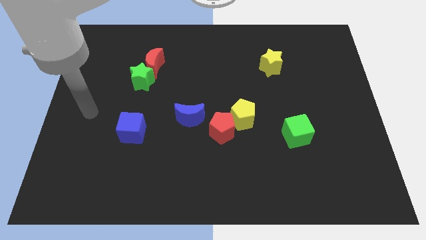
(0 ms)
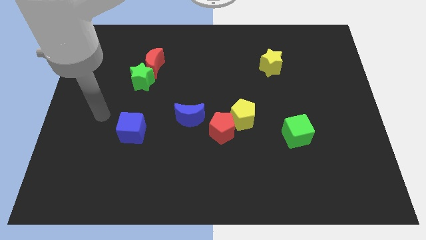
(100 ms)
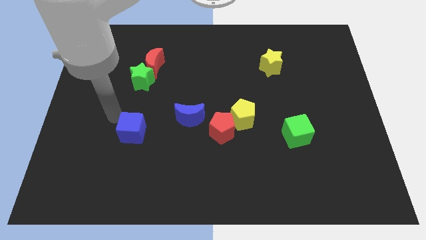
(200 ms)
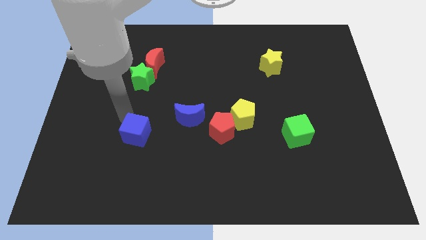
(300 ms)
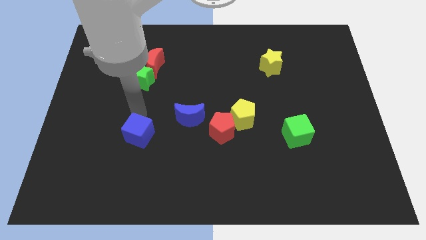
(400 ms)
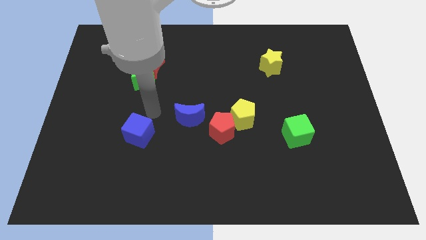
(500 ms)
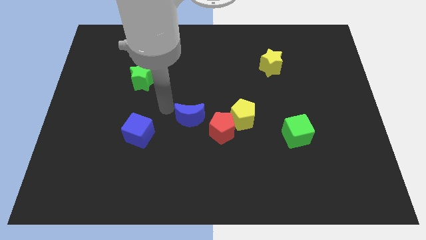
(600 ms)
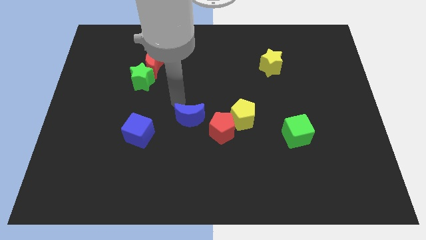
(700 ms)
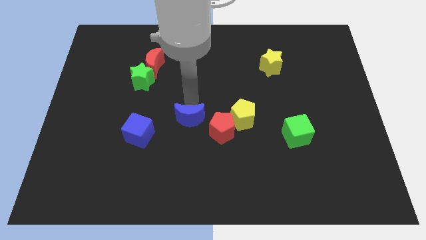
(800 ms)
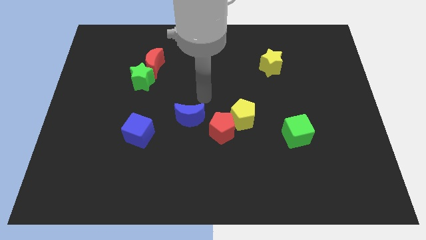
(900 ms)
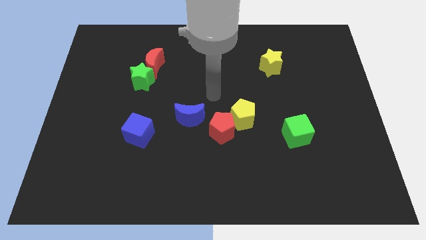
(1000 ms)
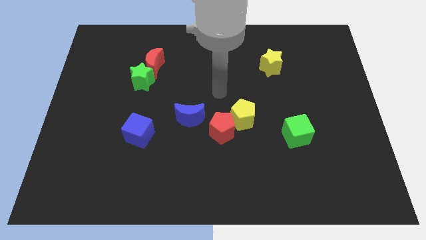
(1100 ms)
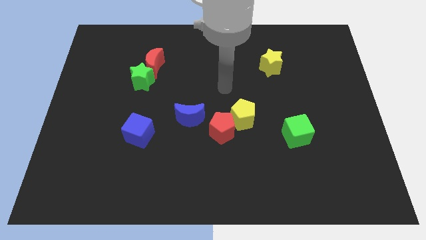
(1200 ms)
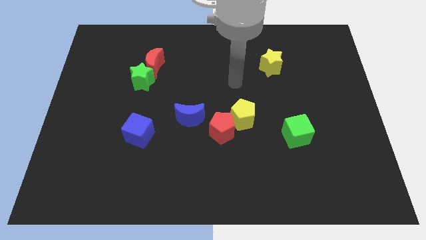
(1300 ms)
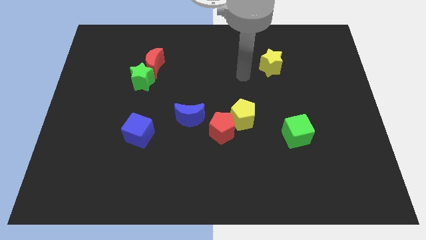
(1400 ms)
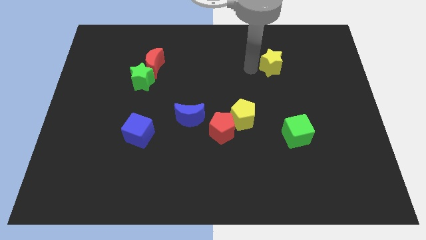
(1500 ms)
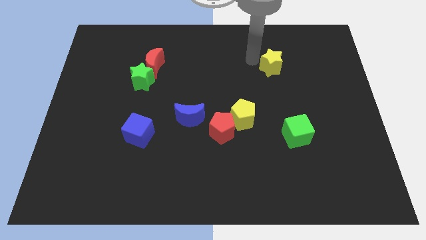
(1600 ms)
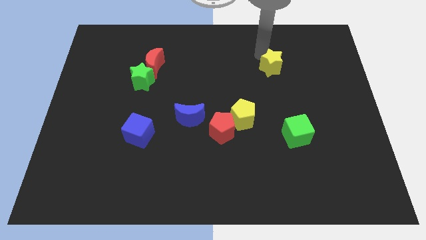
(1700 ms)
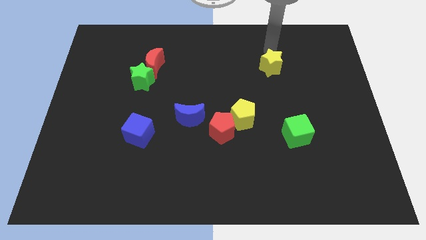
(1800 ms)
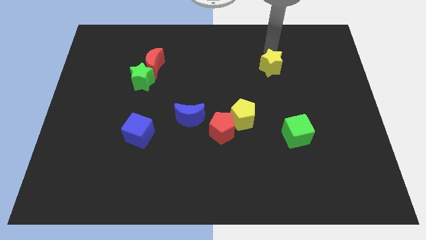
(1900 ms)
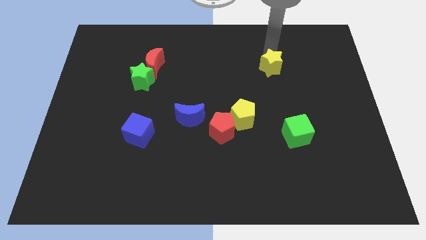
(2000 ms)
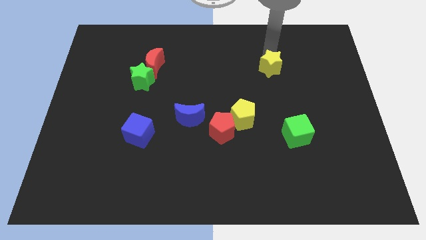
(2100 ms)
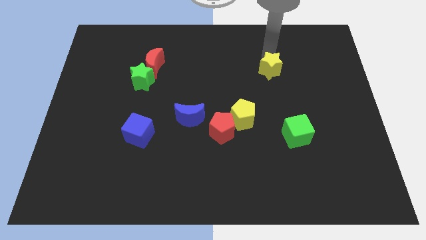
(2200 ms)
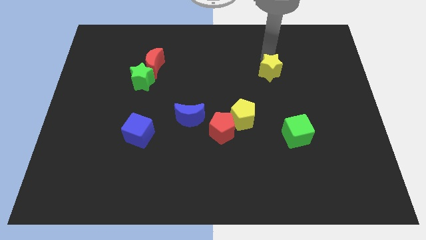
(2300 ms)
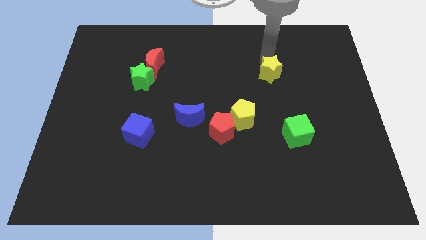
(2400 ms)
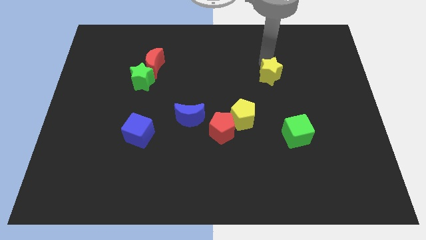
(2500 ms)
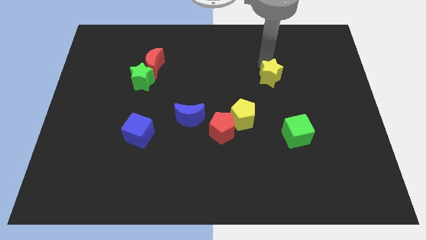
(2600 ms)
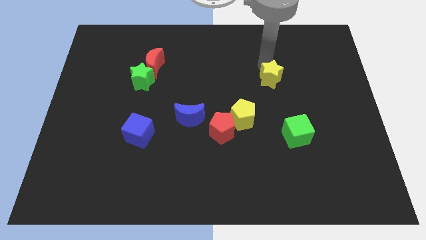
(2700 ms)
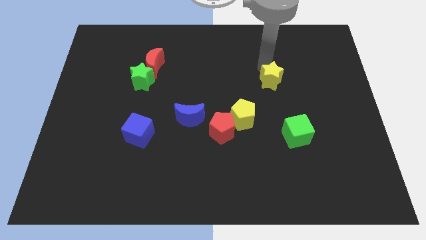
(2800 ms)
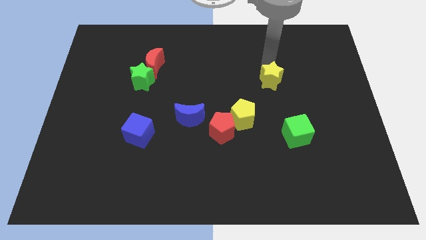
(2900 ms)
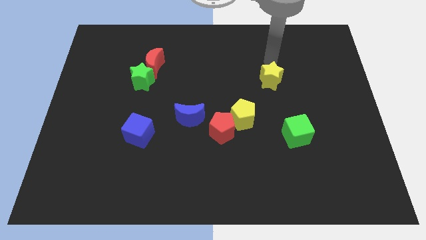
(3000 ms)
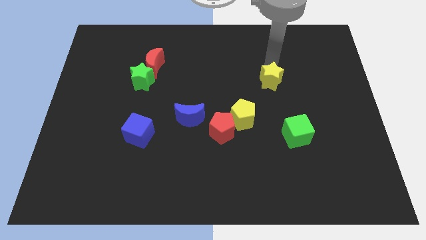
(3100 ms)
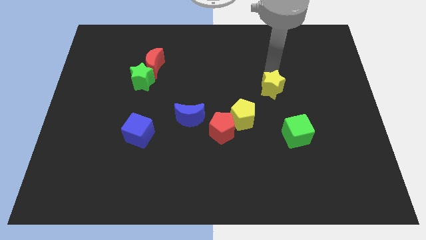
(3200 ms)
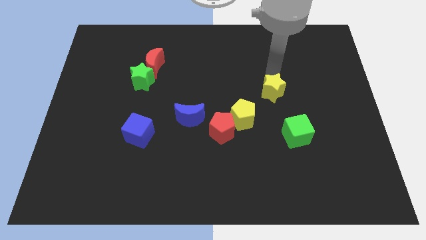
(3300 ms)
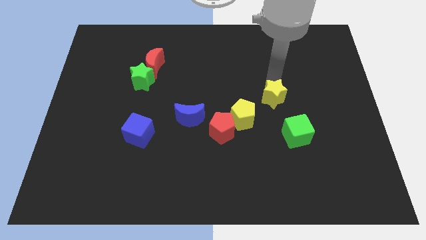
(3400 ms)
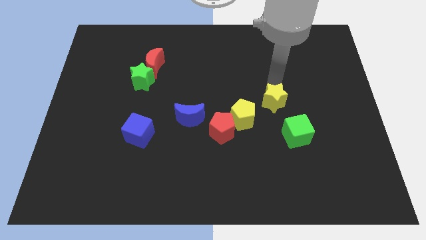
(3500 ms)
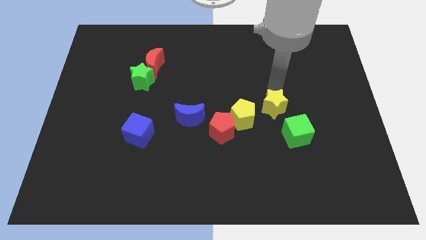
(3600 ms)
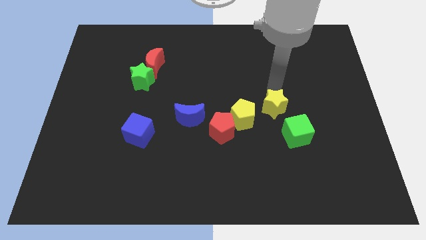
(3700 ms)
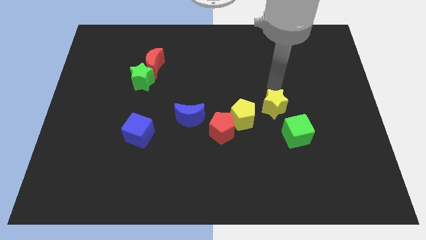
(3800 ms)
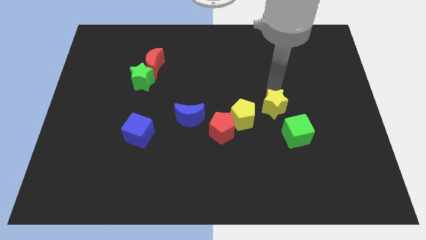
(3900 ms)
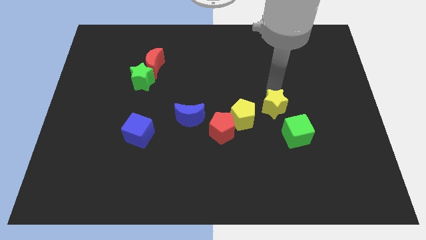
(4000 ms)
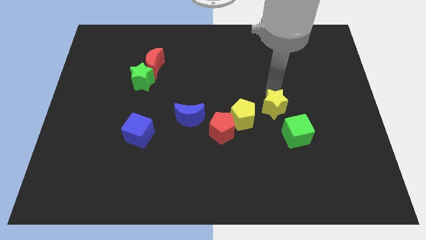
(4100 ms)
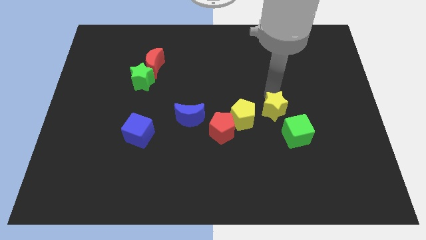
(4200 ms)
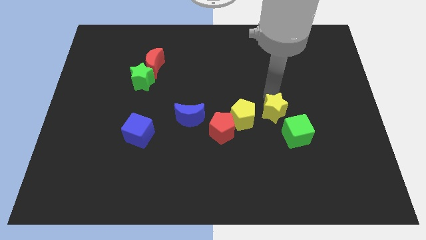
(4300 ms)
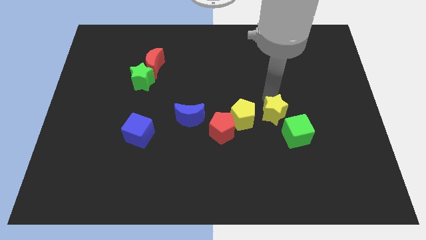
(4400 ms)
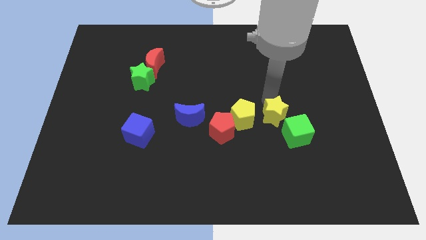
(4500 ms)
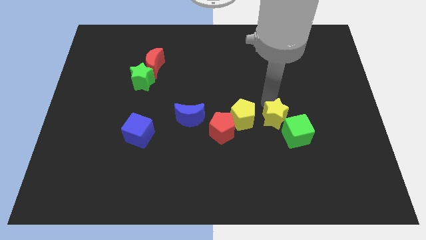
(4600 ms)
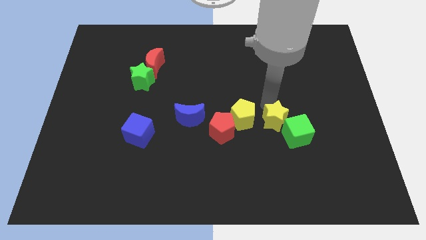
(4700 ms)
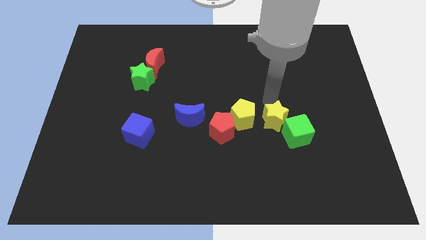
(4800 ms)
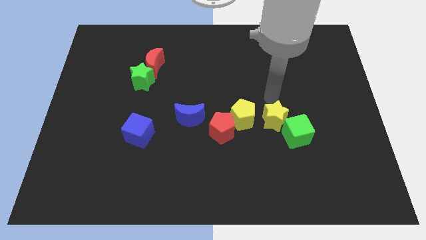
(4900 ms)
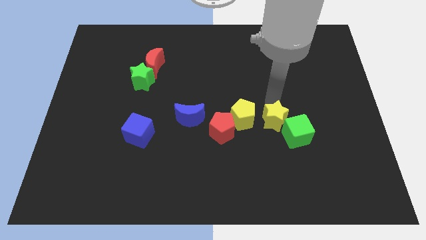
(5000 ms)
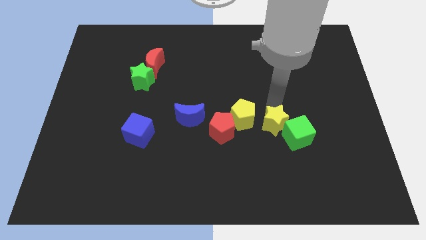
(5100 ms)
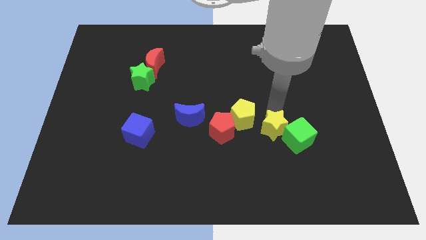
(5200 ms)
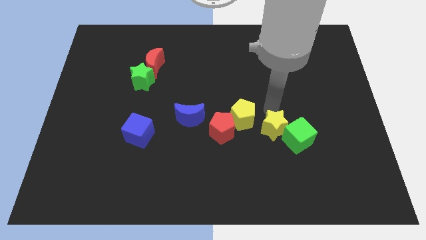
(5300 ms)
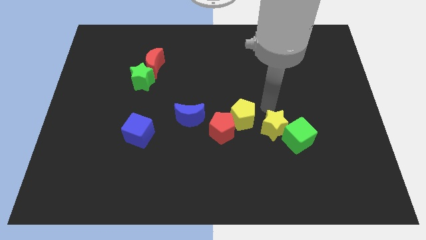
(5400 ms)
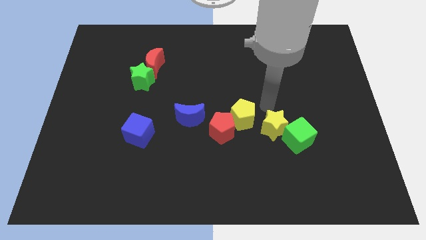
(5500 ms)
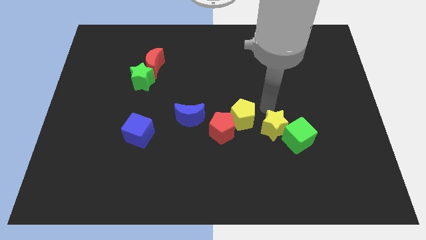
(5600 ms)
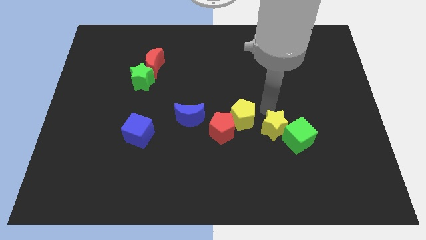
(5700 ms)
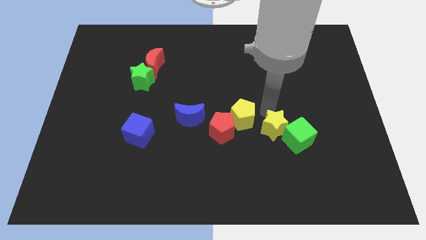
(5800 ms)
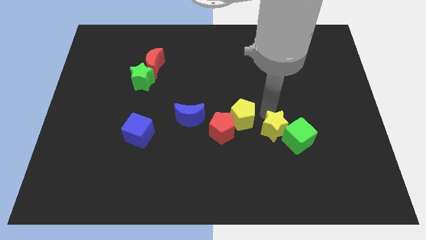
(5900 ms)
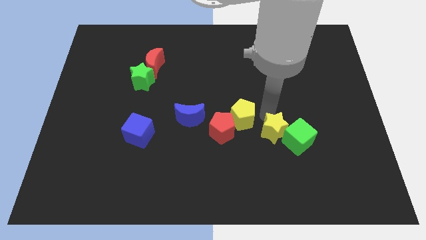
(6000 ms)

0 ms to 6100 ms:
slide the yellow star down

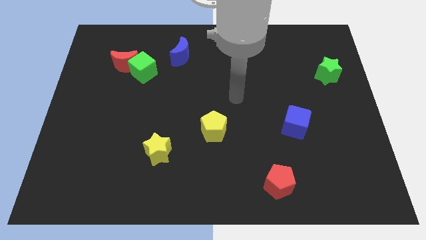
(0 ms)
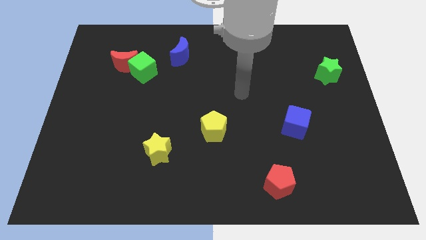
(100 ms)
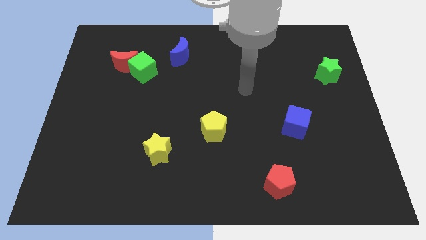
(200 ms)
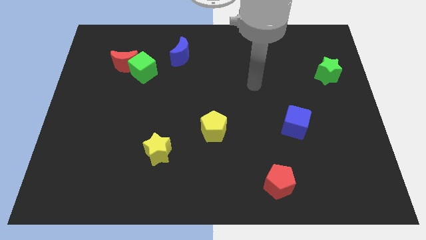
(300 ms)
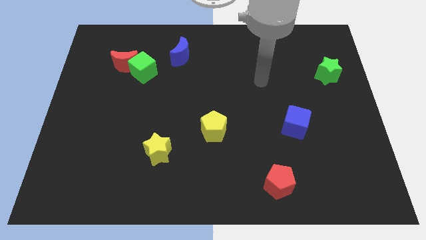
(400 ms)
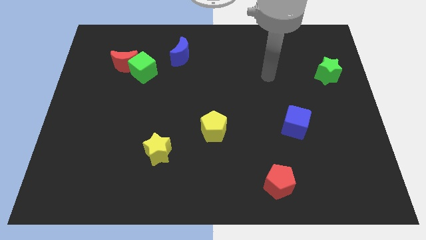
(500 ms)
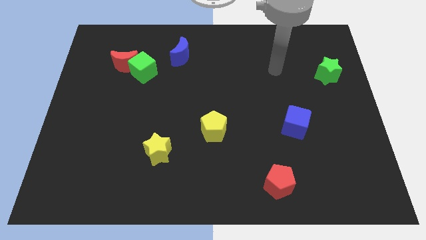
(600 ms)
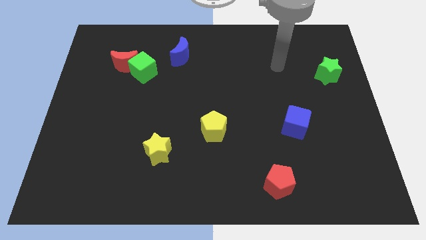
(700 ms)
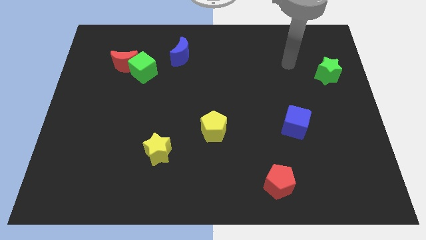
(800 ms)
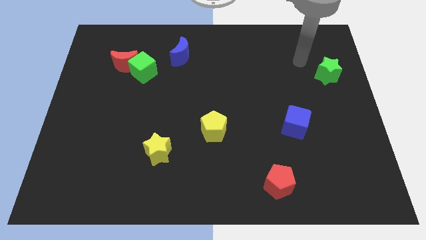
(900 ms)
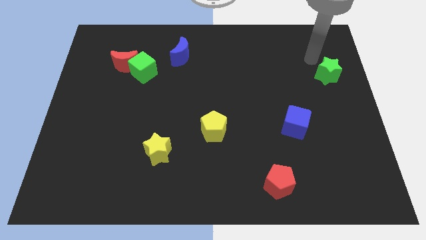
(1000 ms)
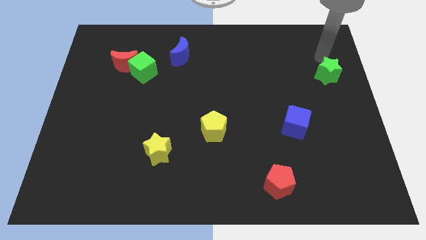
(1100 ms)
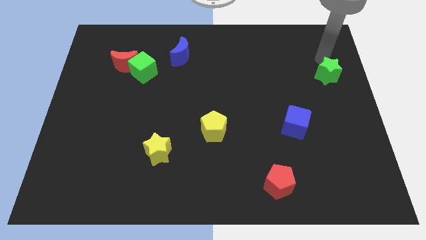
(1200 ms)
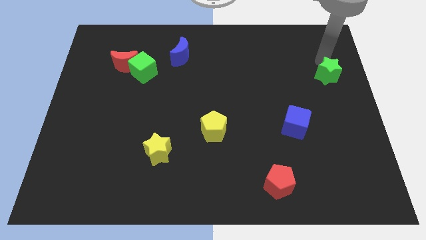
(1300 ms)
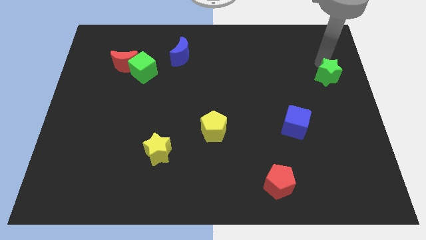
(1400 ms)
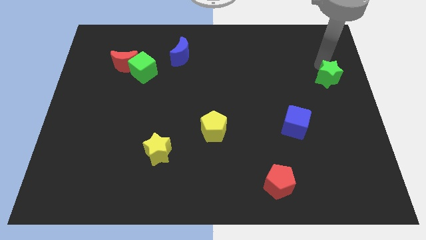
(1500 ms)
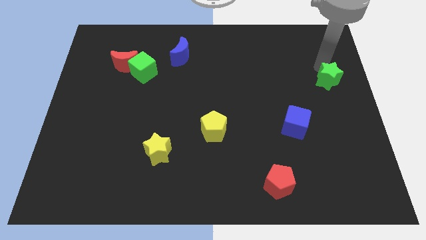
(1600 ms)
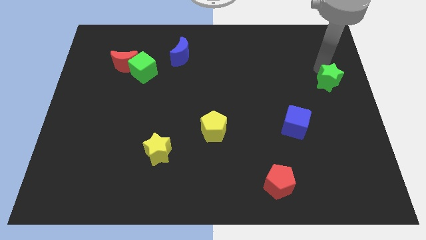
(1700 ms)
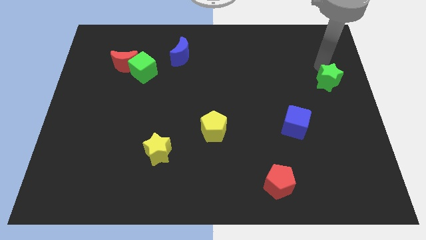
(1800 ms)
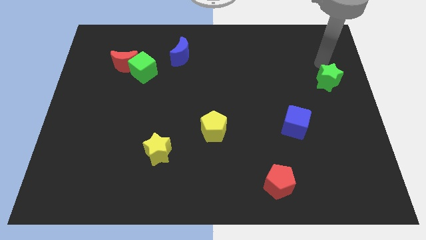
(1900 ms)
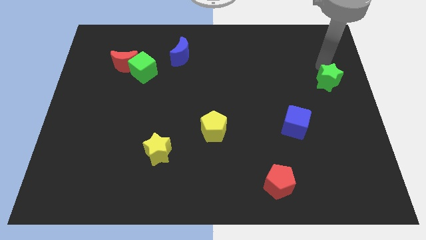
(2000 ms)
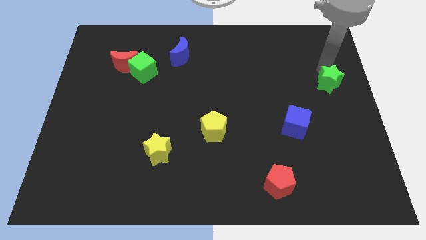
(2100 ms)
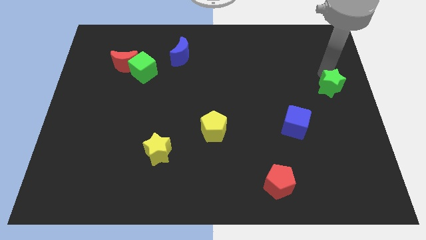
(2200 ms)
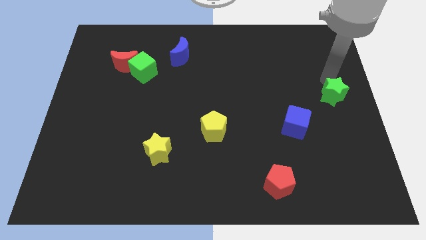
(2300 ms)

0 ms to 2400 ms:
slide the green star downwards a little
